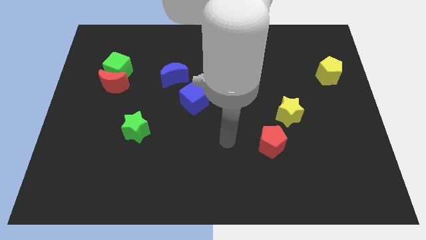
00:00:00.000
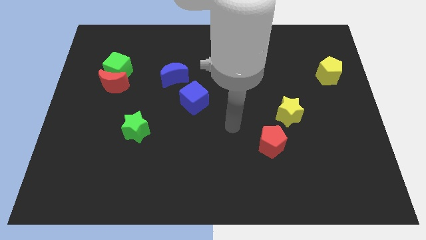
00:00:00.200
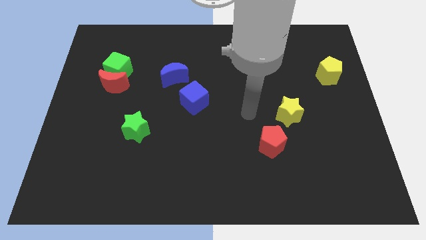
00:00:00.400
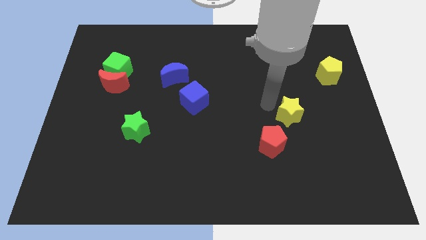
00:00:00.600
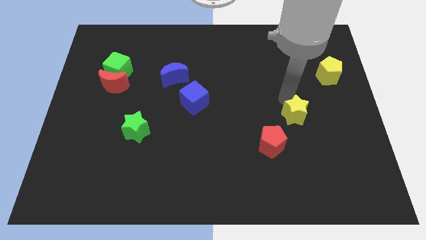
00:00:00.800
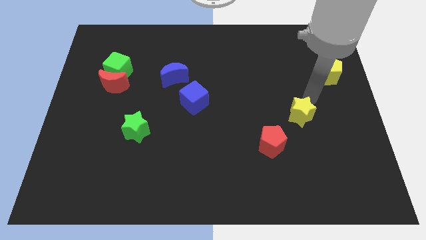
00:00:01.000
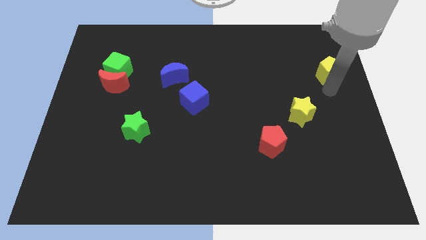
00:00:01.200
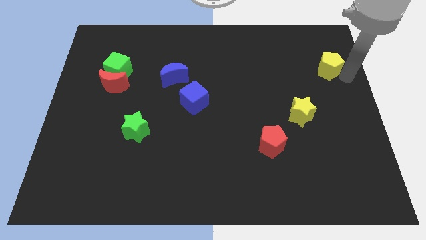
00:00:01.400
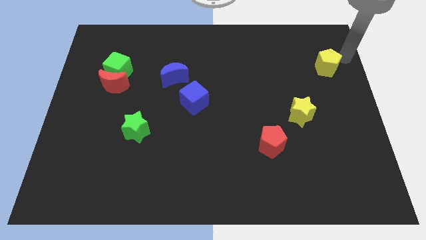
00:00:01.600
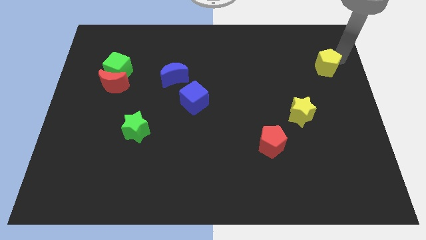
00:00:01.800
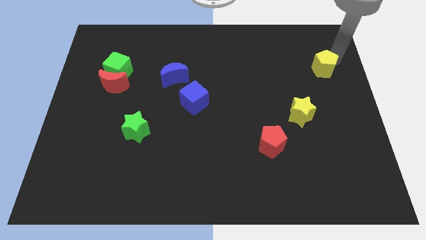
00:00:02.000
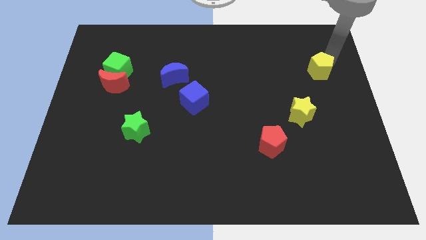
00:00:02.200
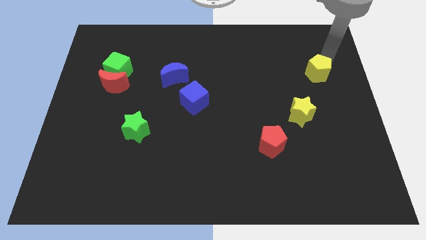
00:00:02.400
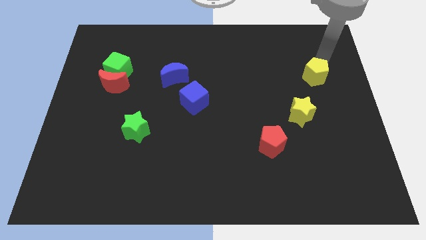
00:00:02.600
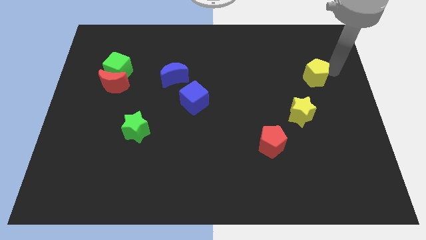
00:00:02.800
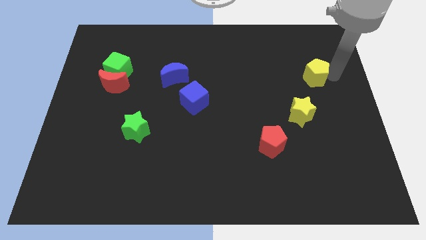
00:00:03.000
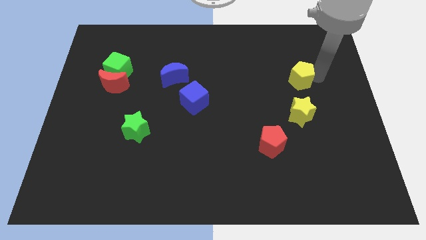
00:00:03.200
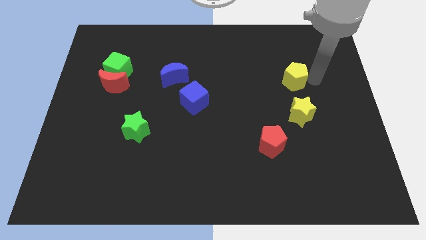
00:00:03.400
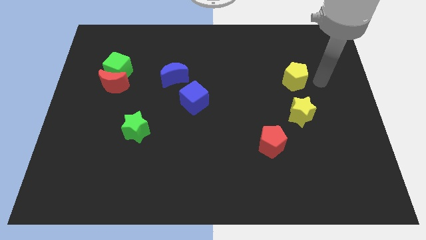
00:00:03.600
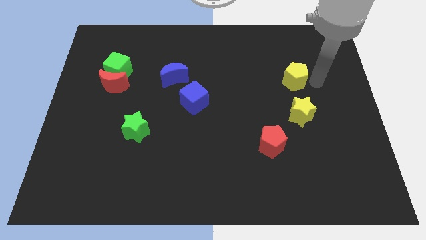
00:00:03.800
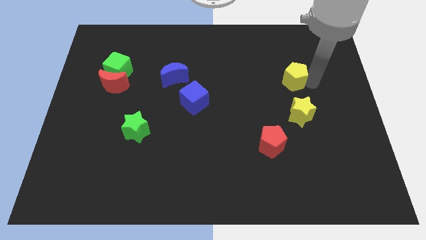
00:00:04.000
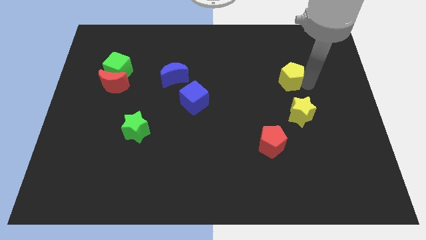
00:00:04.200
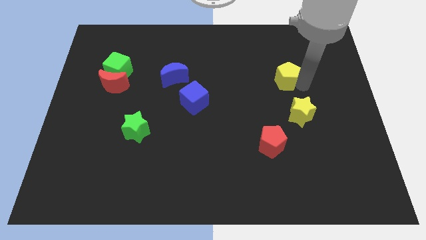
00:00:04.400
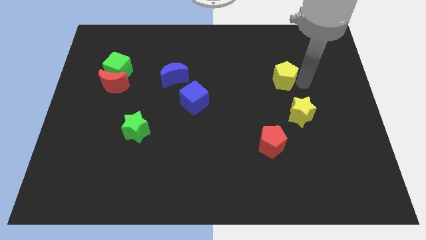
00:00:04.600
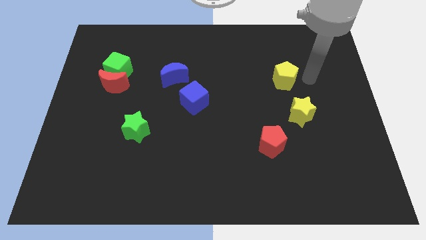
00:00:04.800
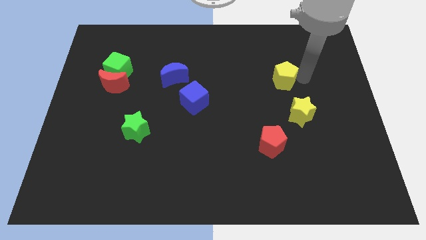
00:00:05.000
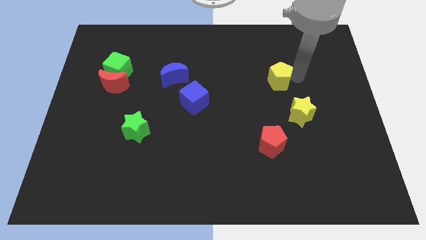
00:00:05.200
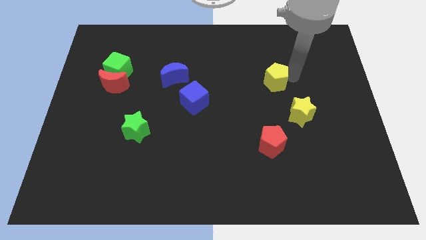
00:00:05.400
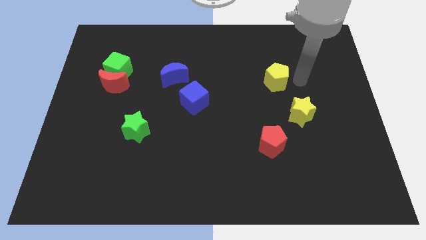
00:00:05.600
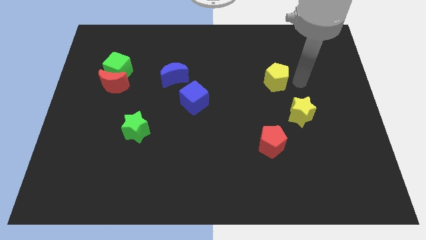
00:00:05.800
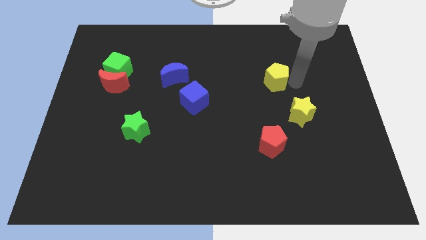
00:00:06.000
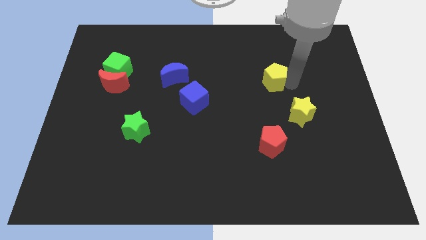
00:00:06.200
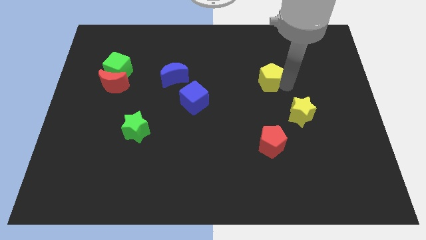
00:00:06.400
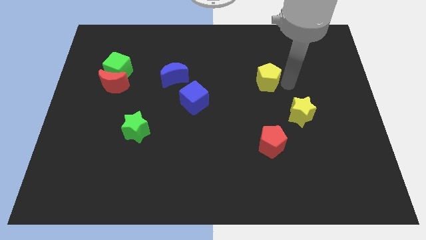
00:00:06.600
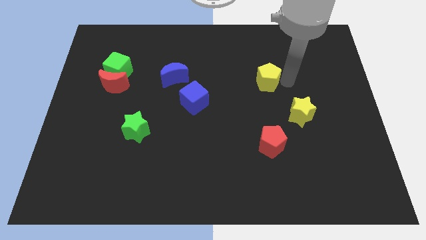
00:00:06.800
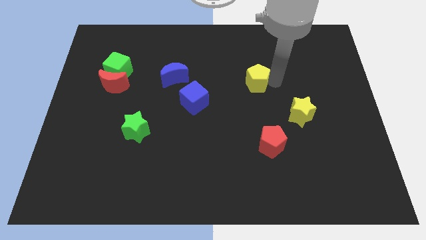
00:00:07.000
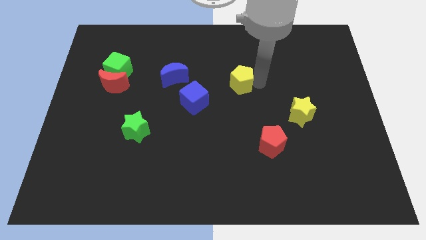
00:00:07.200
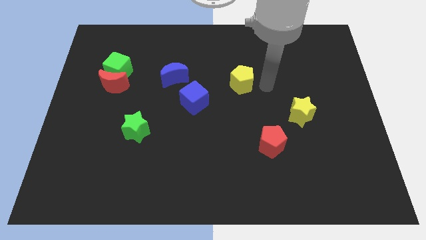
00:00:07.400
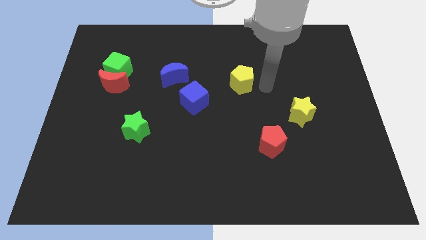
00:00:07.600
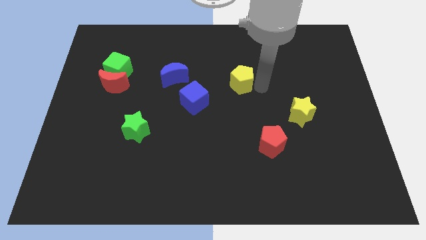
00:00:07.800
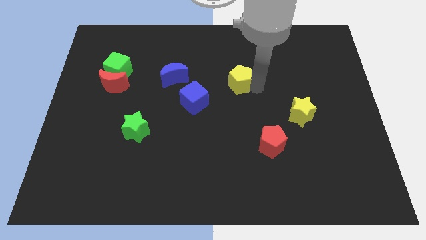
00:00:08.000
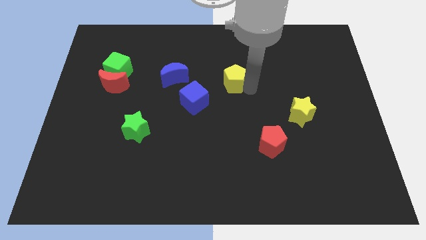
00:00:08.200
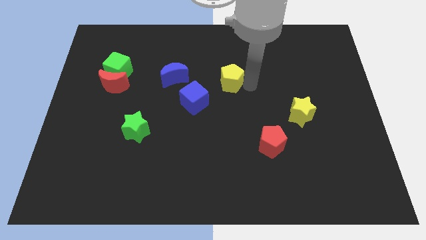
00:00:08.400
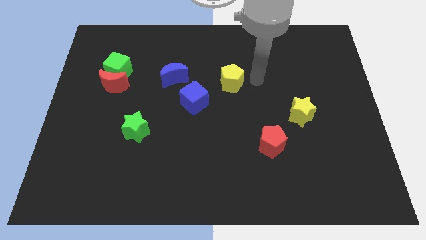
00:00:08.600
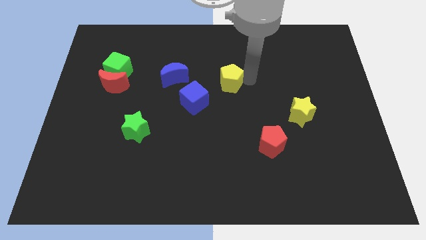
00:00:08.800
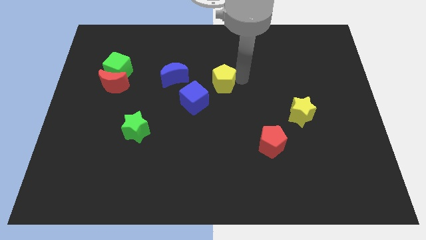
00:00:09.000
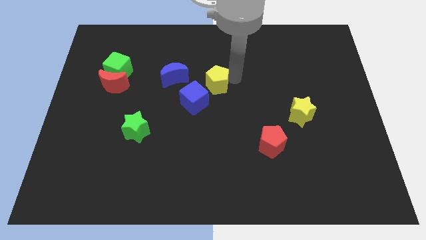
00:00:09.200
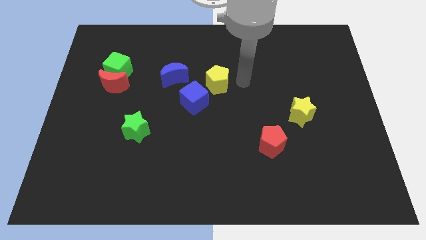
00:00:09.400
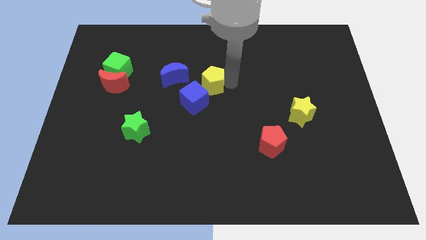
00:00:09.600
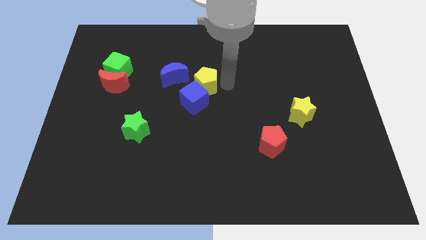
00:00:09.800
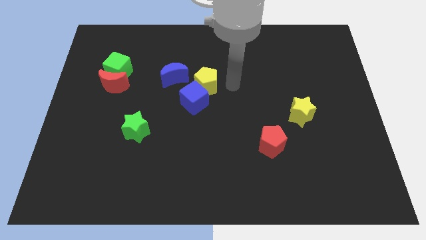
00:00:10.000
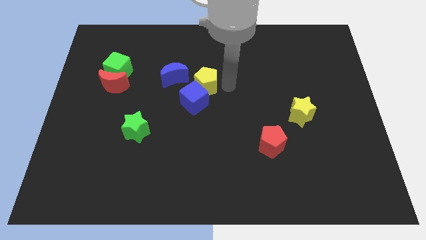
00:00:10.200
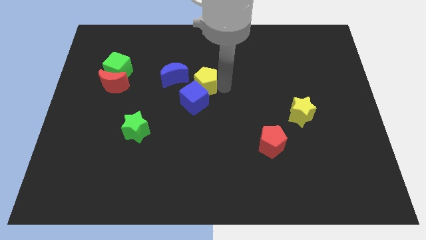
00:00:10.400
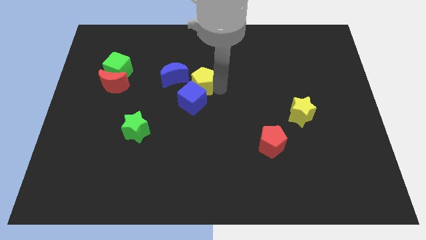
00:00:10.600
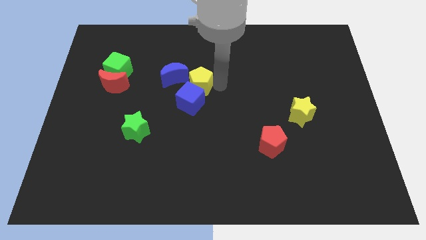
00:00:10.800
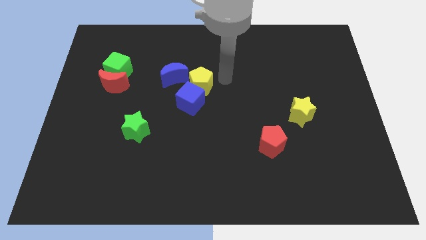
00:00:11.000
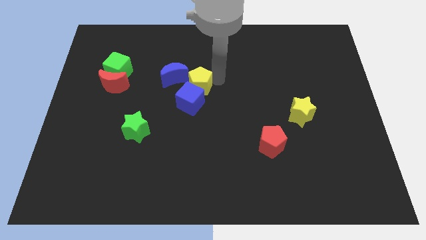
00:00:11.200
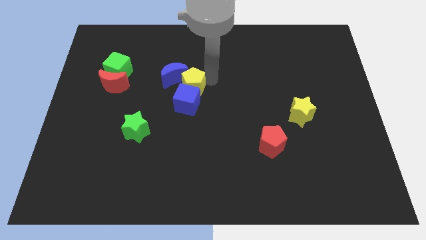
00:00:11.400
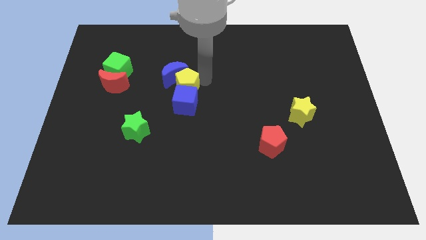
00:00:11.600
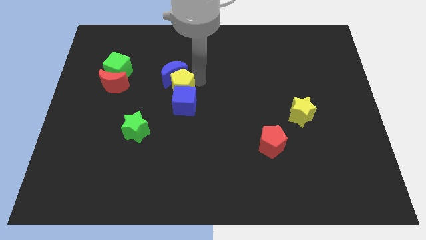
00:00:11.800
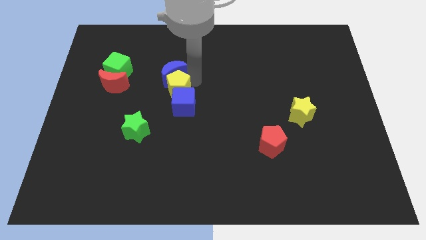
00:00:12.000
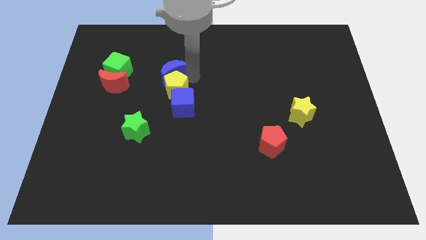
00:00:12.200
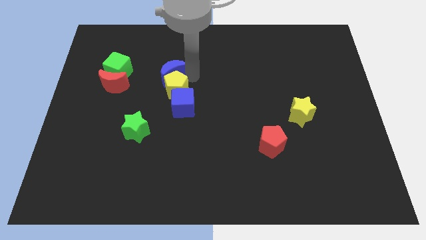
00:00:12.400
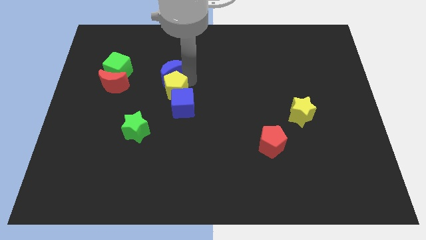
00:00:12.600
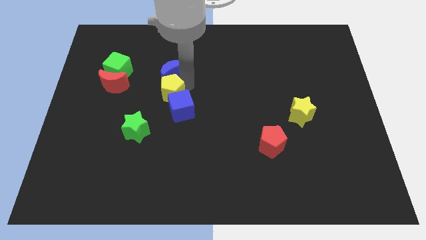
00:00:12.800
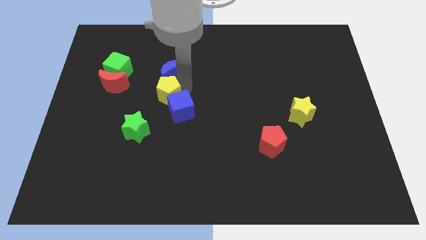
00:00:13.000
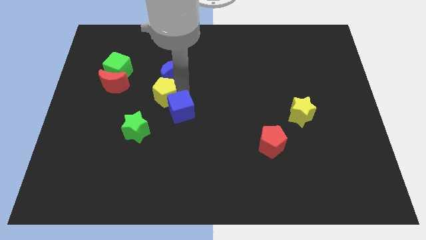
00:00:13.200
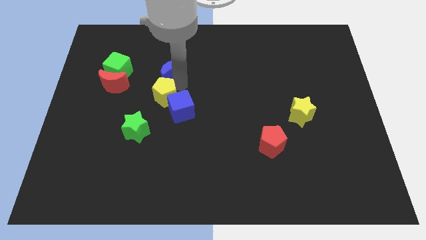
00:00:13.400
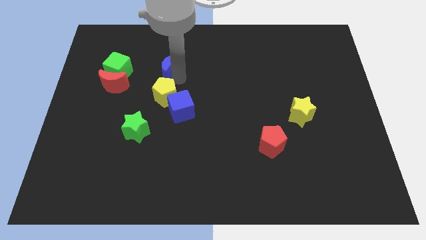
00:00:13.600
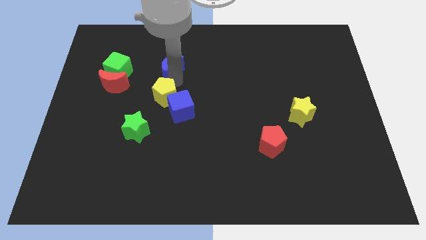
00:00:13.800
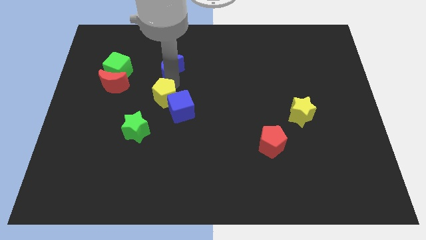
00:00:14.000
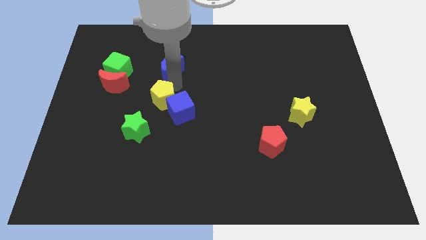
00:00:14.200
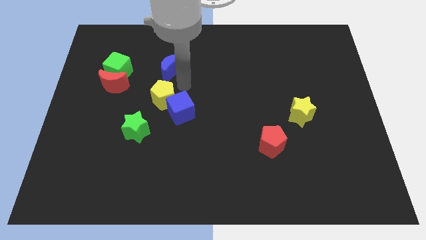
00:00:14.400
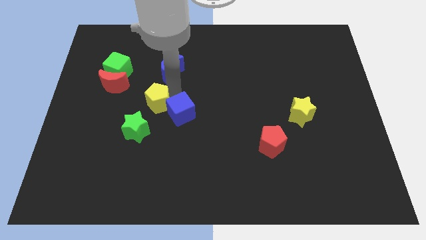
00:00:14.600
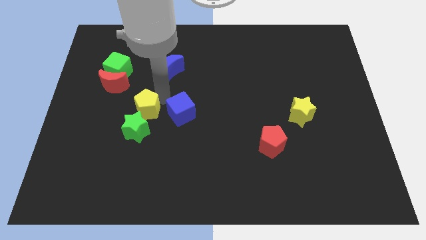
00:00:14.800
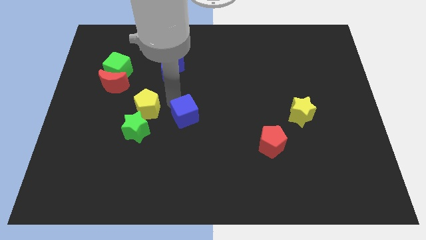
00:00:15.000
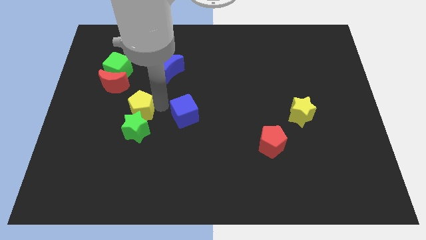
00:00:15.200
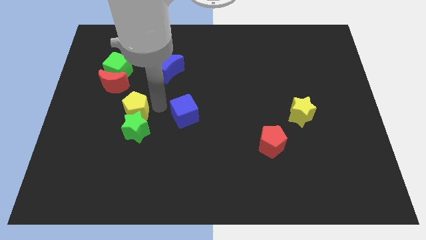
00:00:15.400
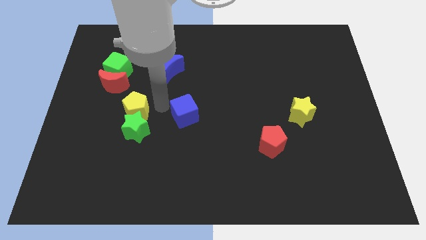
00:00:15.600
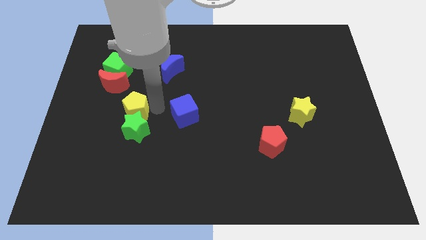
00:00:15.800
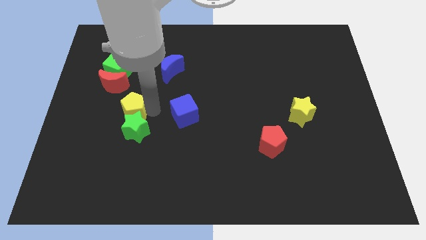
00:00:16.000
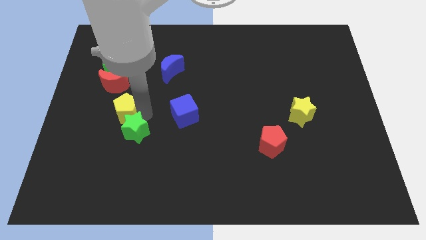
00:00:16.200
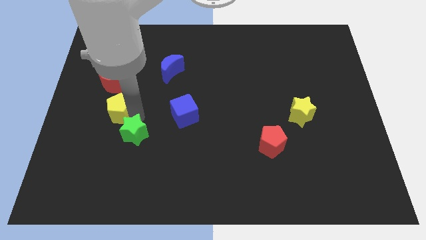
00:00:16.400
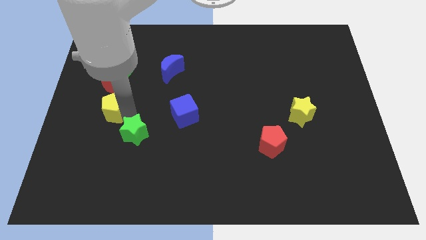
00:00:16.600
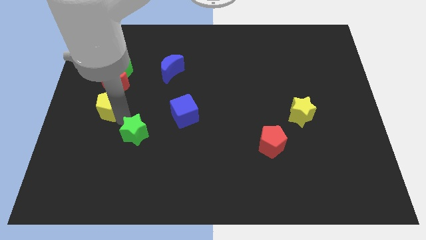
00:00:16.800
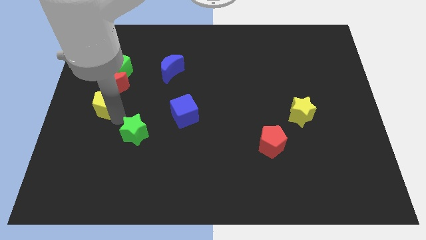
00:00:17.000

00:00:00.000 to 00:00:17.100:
slide the yellow pentagon to the center left
